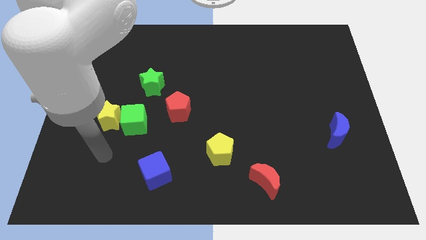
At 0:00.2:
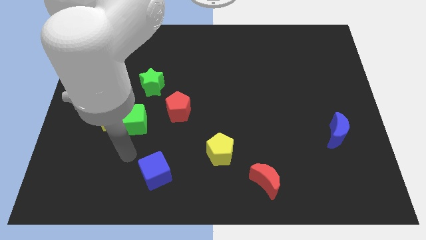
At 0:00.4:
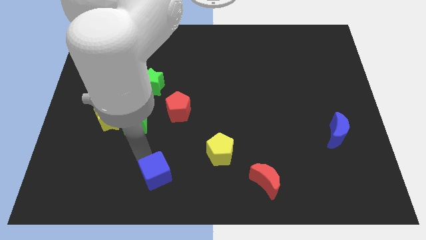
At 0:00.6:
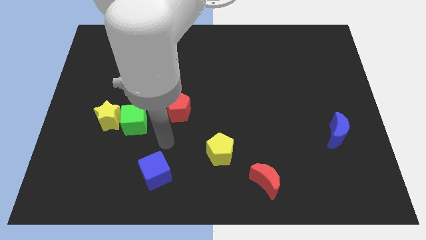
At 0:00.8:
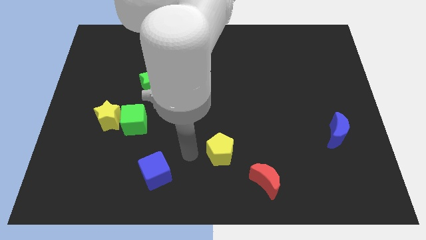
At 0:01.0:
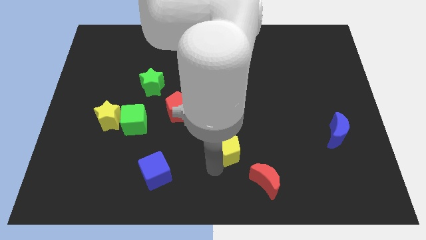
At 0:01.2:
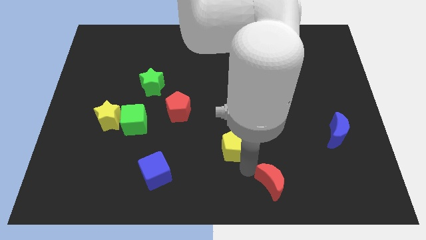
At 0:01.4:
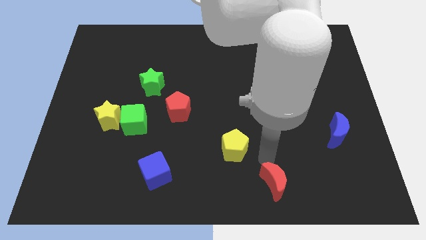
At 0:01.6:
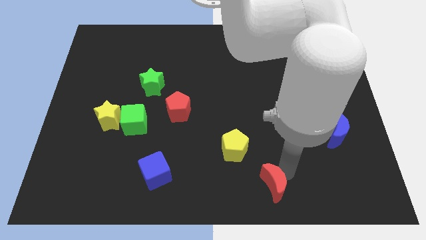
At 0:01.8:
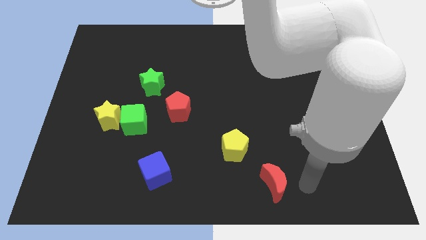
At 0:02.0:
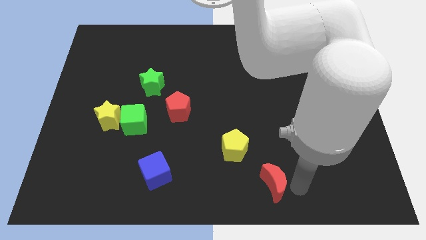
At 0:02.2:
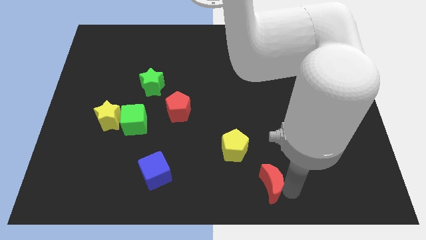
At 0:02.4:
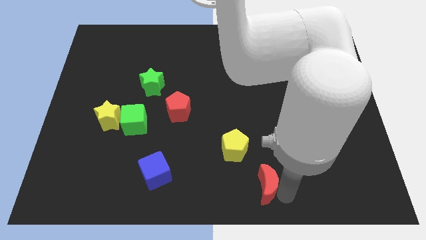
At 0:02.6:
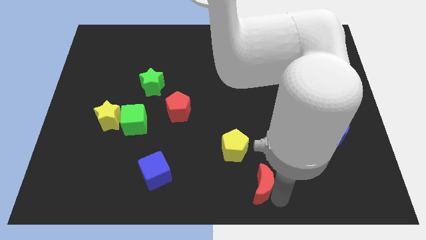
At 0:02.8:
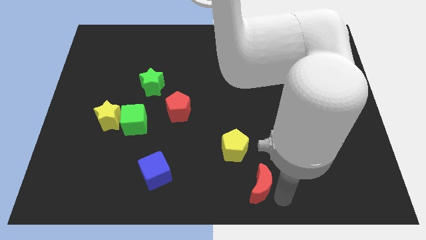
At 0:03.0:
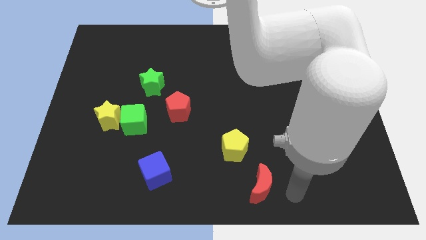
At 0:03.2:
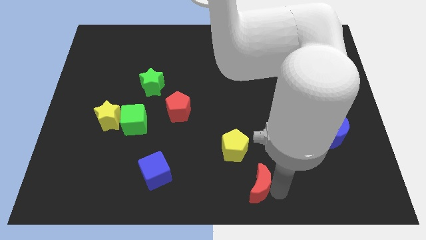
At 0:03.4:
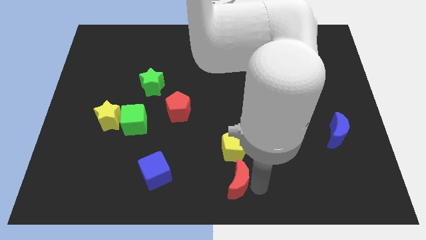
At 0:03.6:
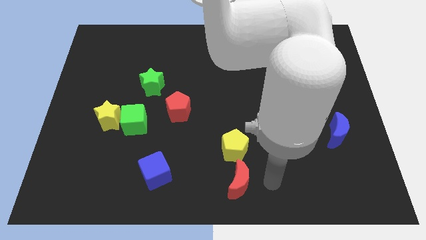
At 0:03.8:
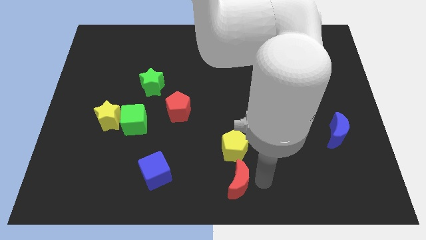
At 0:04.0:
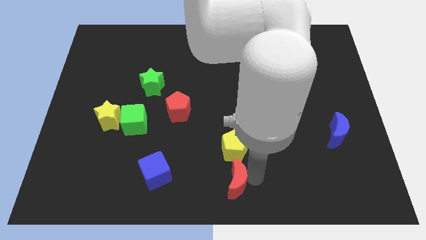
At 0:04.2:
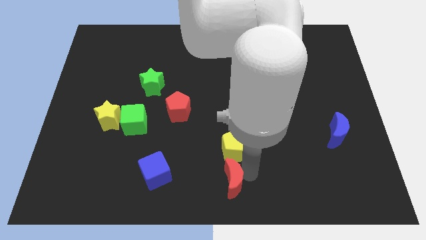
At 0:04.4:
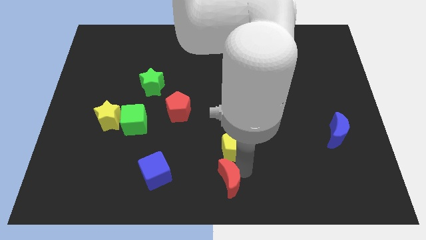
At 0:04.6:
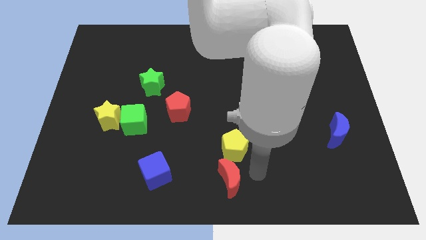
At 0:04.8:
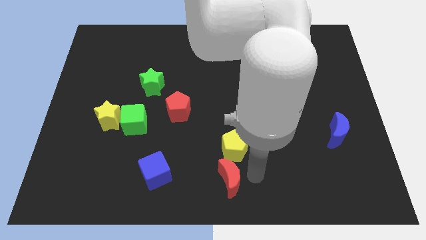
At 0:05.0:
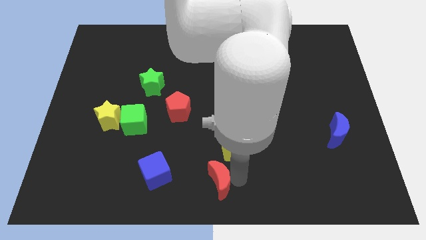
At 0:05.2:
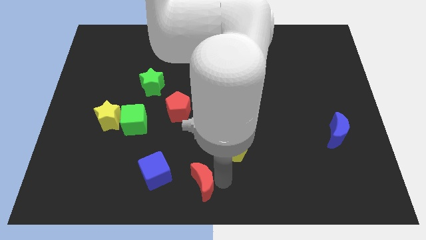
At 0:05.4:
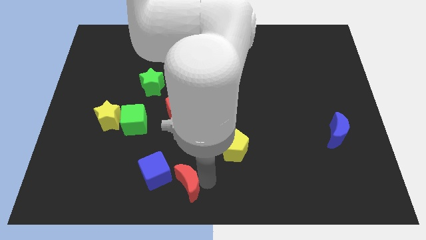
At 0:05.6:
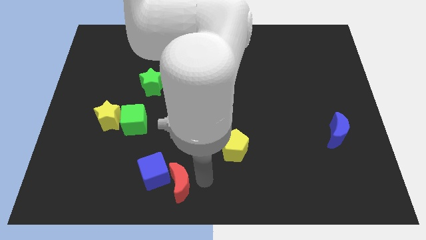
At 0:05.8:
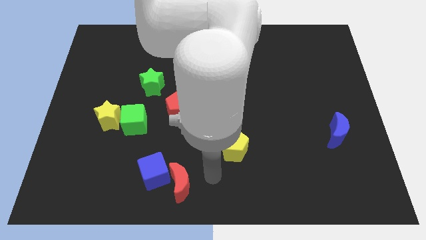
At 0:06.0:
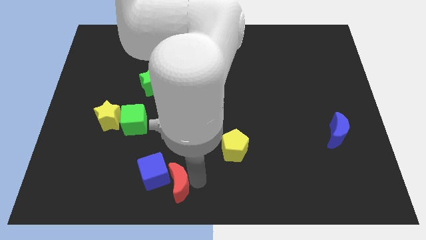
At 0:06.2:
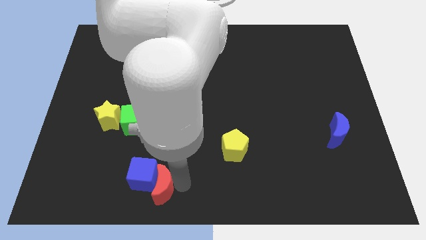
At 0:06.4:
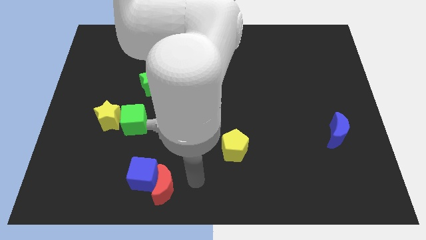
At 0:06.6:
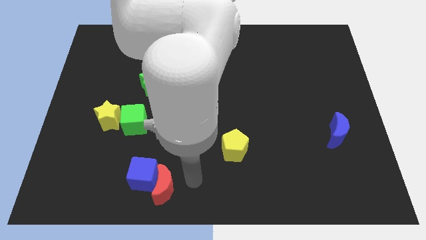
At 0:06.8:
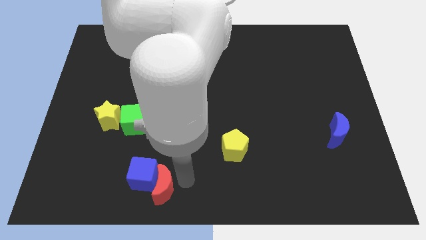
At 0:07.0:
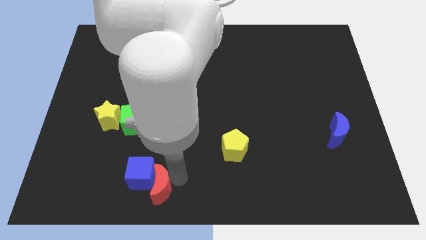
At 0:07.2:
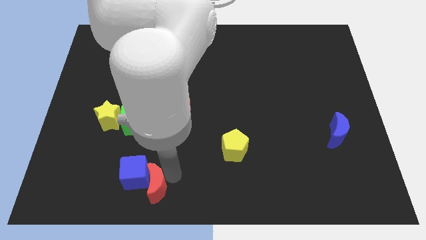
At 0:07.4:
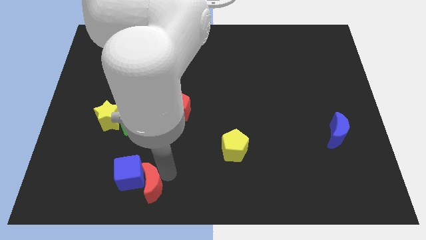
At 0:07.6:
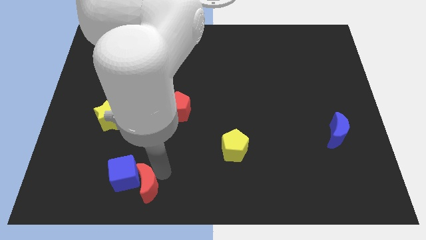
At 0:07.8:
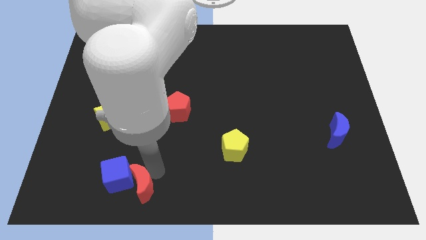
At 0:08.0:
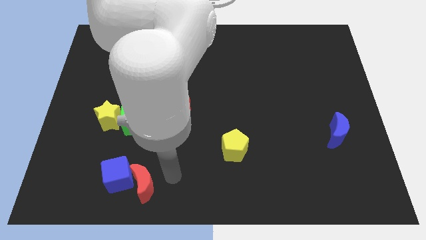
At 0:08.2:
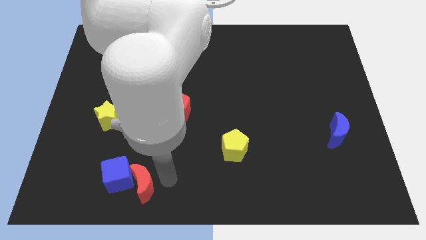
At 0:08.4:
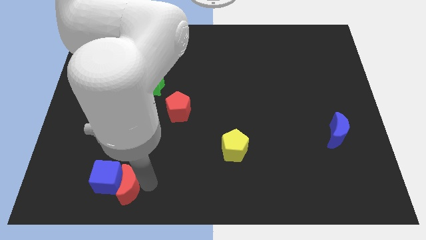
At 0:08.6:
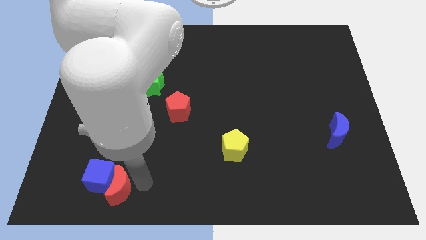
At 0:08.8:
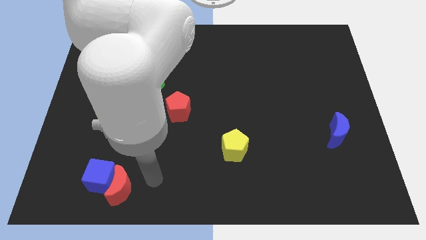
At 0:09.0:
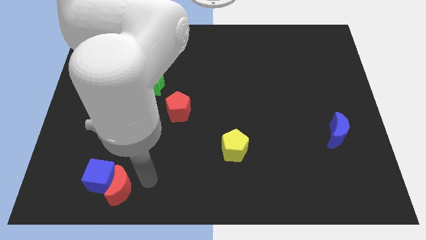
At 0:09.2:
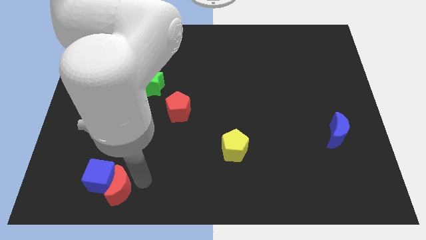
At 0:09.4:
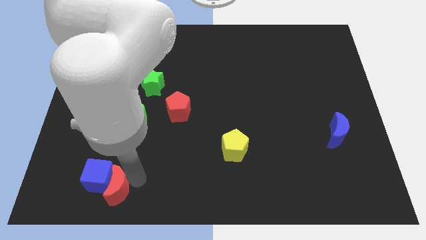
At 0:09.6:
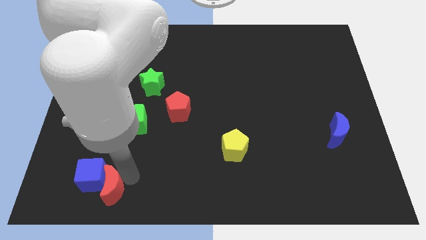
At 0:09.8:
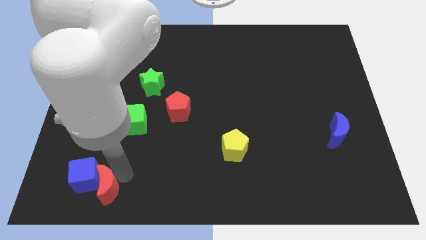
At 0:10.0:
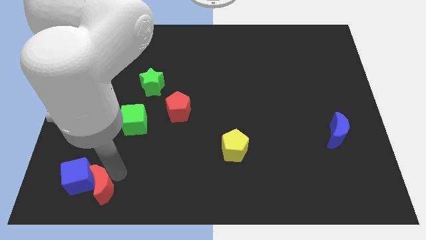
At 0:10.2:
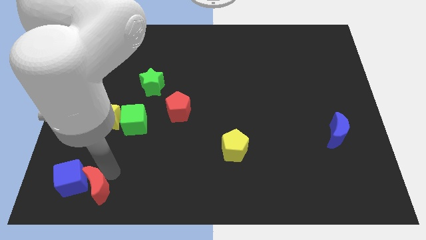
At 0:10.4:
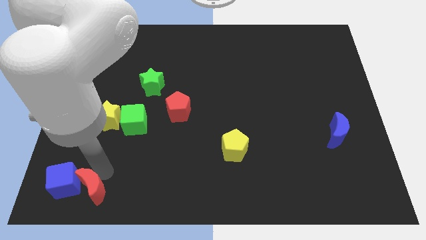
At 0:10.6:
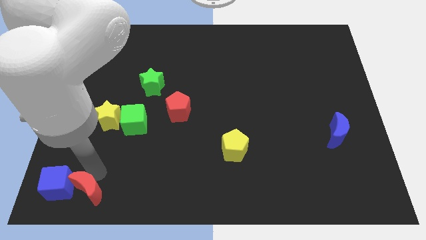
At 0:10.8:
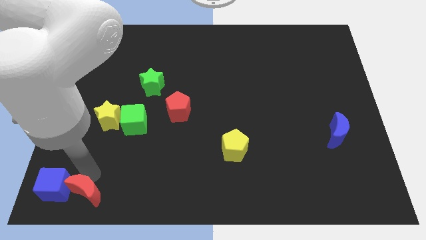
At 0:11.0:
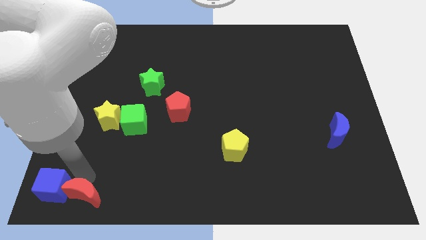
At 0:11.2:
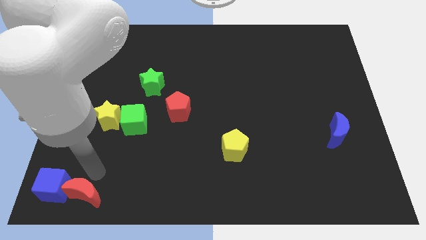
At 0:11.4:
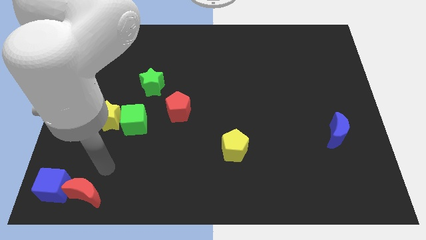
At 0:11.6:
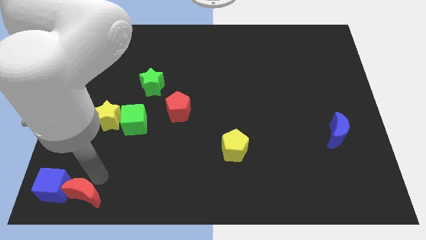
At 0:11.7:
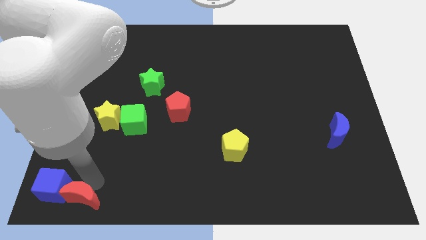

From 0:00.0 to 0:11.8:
push the red moon to the bottom left corner
